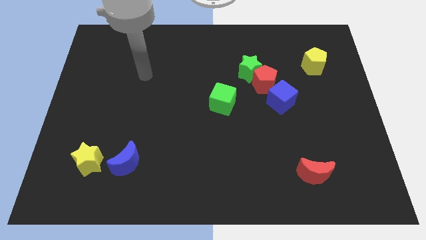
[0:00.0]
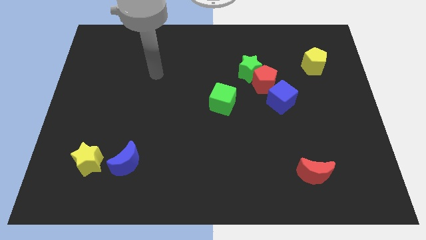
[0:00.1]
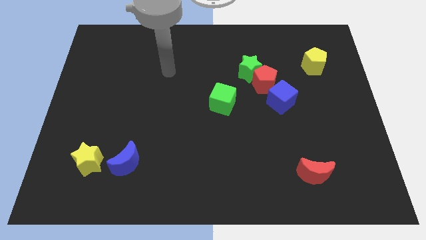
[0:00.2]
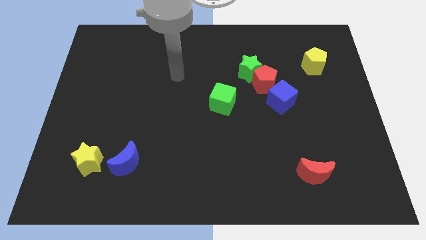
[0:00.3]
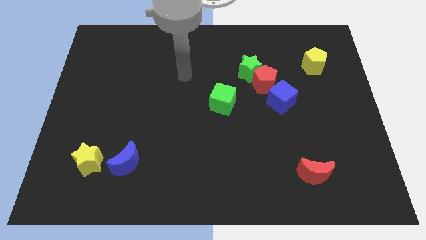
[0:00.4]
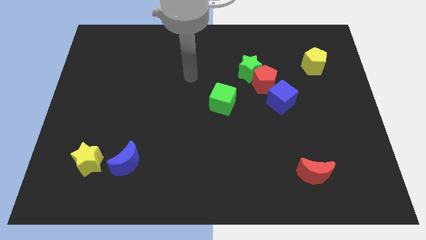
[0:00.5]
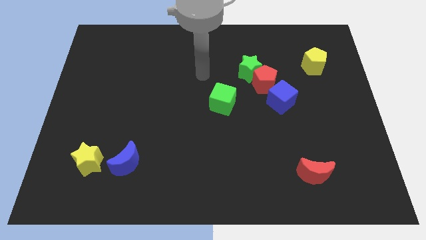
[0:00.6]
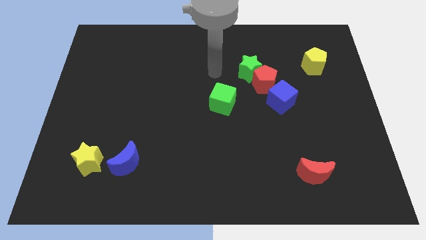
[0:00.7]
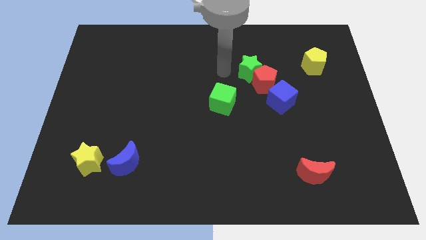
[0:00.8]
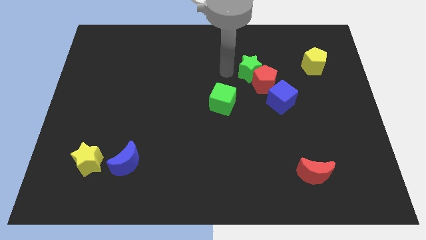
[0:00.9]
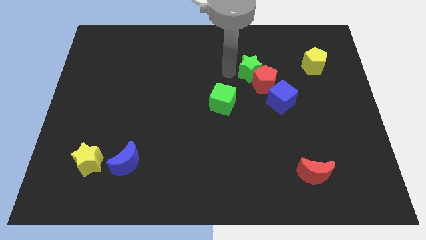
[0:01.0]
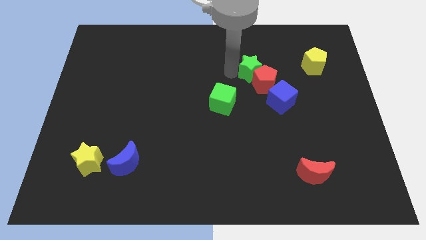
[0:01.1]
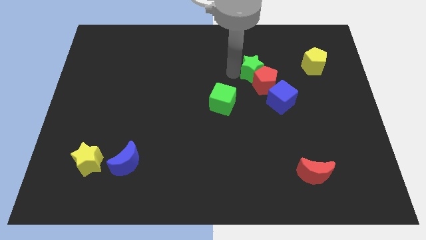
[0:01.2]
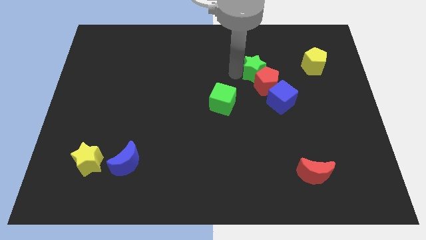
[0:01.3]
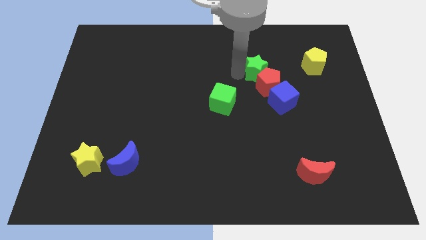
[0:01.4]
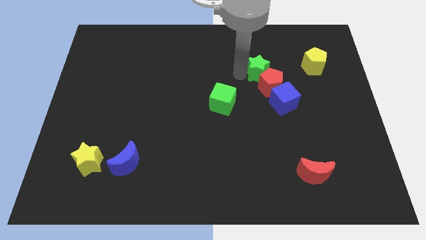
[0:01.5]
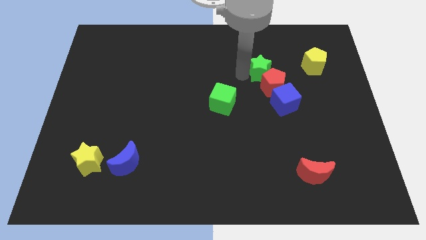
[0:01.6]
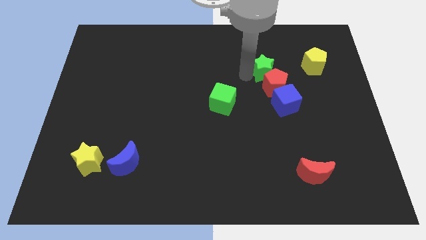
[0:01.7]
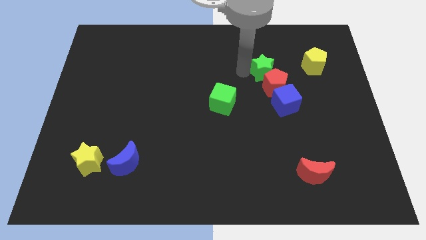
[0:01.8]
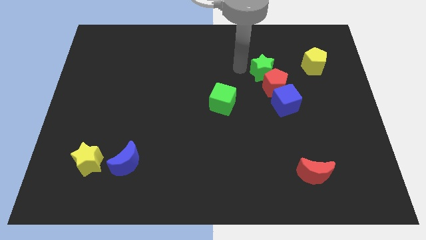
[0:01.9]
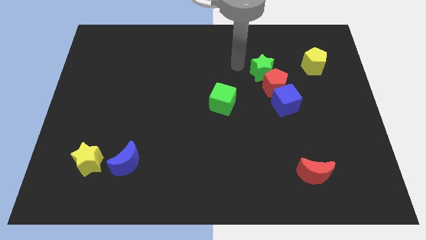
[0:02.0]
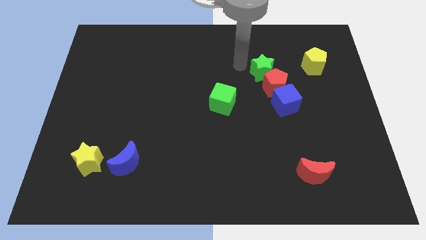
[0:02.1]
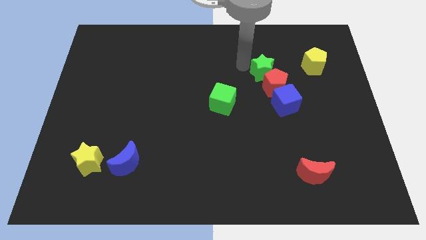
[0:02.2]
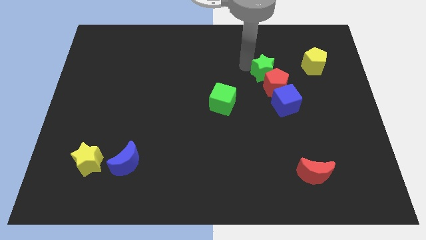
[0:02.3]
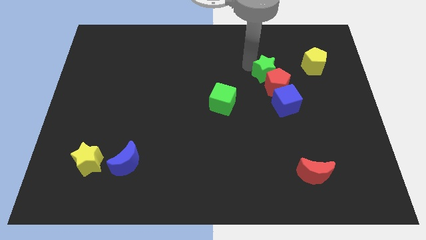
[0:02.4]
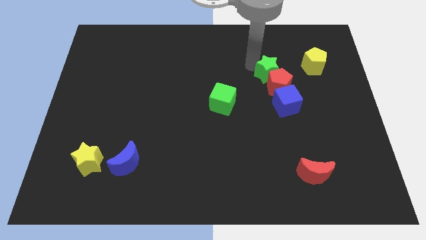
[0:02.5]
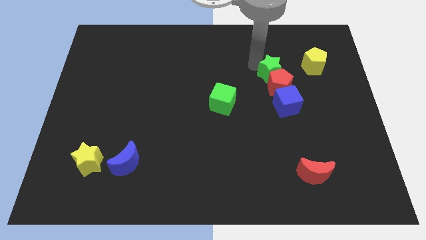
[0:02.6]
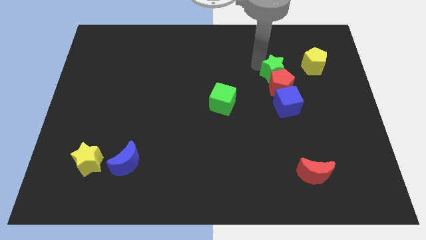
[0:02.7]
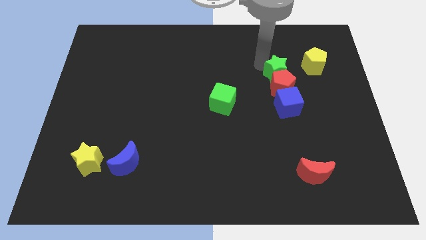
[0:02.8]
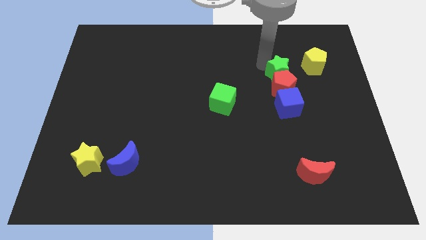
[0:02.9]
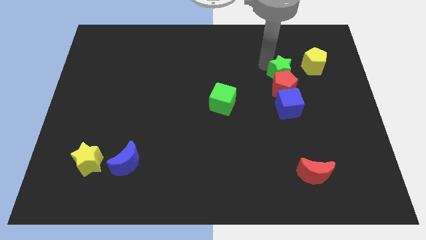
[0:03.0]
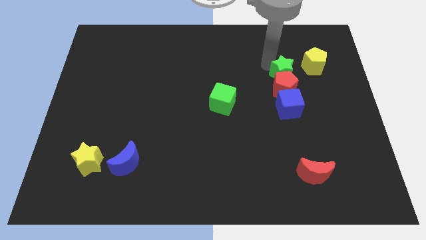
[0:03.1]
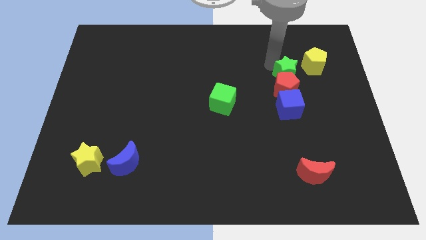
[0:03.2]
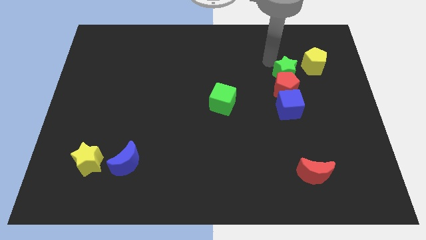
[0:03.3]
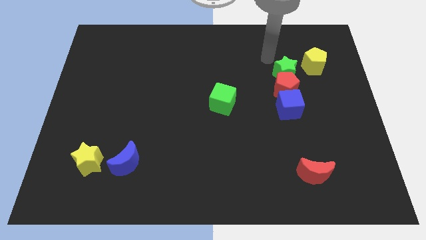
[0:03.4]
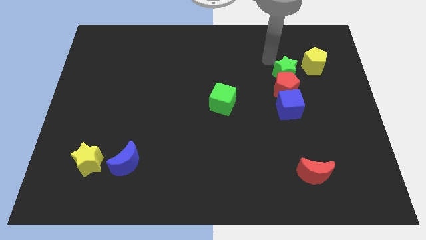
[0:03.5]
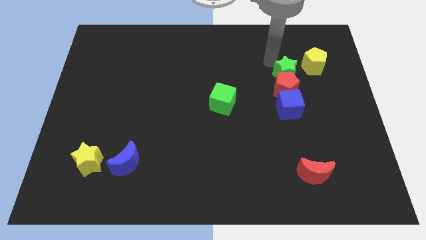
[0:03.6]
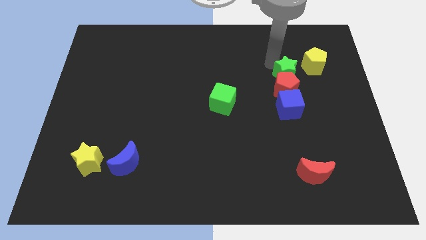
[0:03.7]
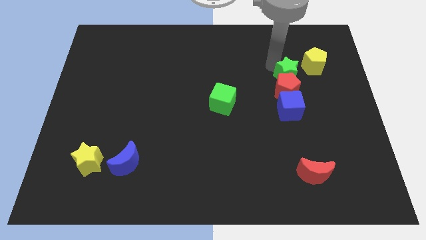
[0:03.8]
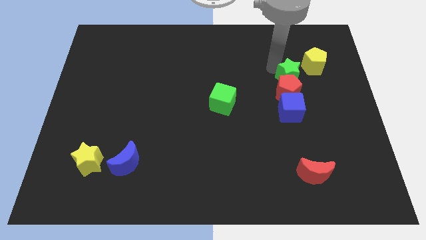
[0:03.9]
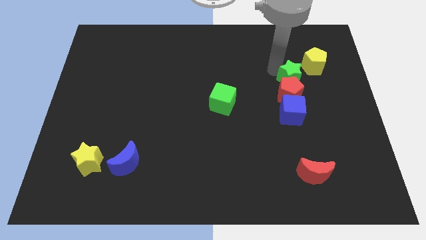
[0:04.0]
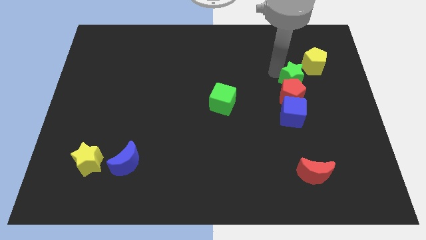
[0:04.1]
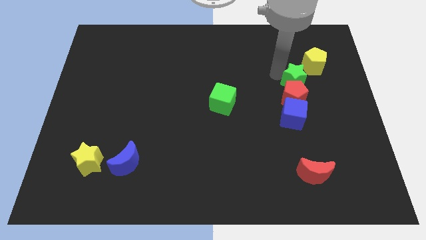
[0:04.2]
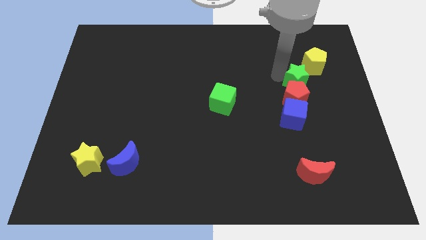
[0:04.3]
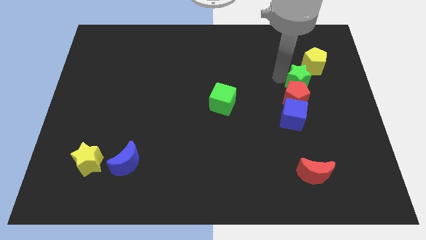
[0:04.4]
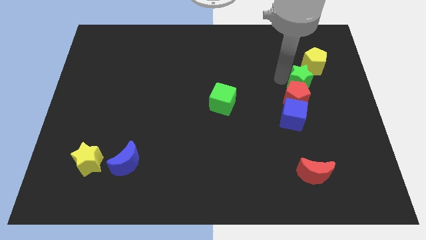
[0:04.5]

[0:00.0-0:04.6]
slide the green star to the bottom of the yellow pentagon

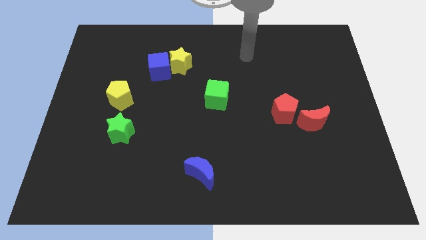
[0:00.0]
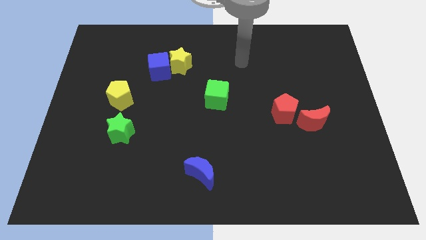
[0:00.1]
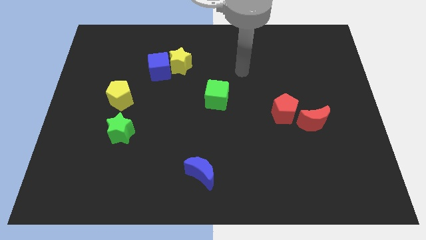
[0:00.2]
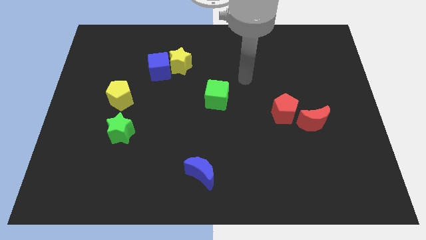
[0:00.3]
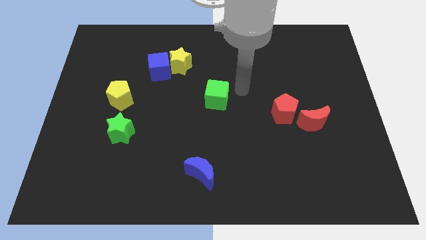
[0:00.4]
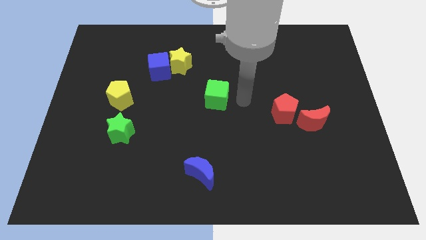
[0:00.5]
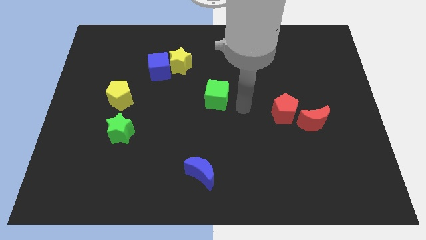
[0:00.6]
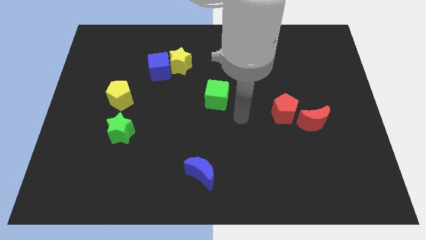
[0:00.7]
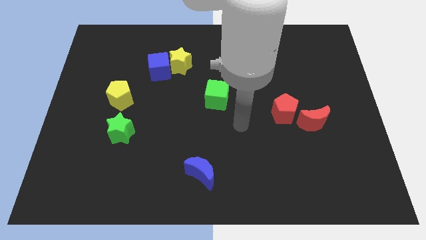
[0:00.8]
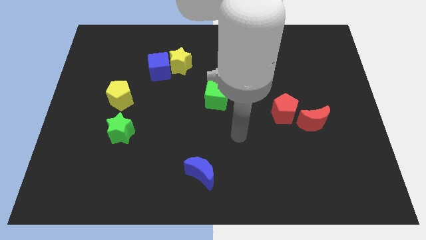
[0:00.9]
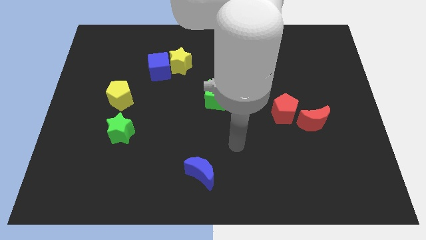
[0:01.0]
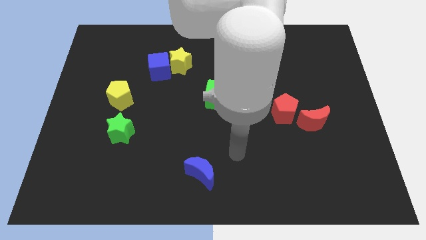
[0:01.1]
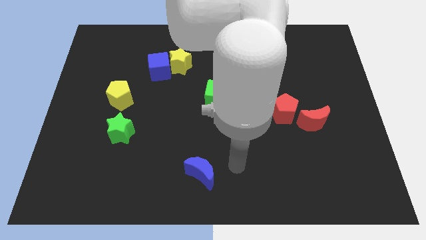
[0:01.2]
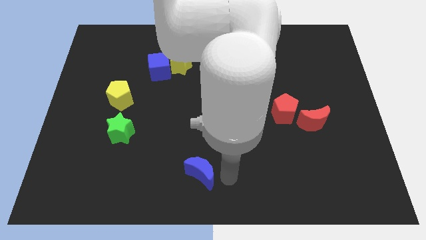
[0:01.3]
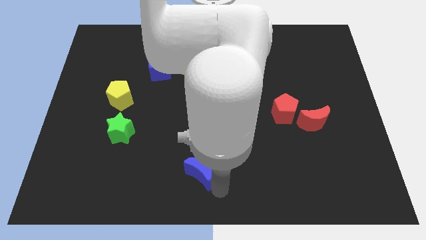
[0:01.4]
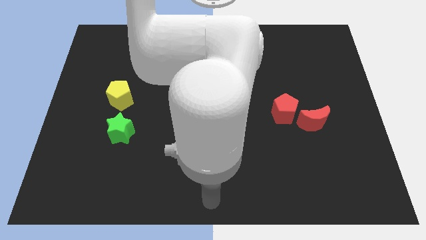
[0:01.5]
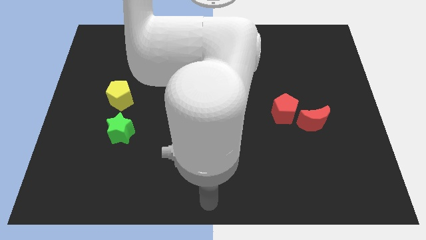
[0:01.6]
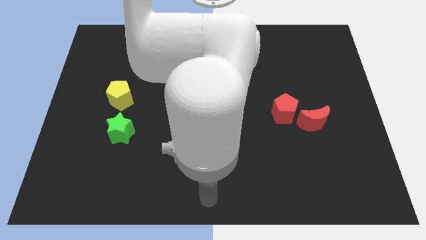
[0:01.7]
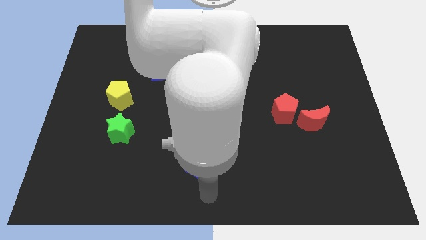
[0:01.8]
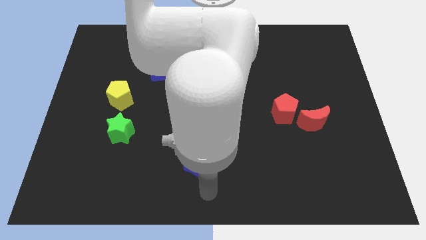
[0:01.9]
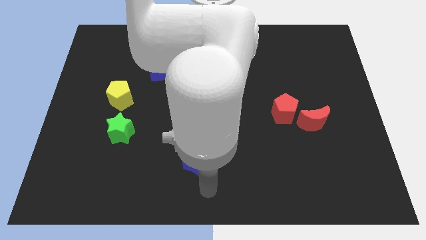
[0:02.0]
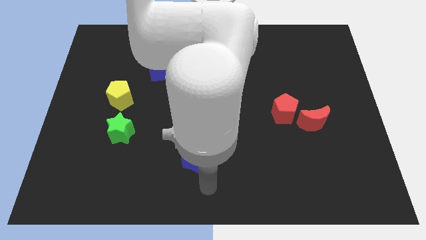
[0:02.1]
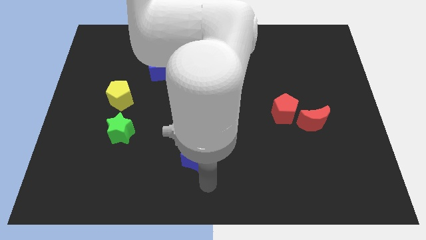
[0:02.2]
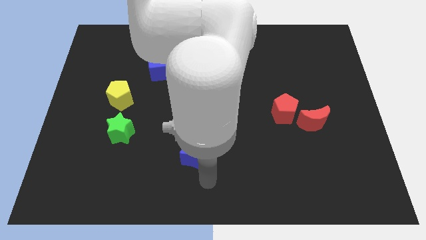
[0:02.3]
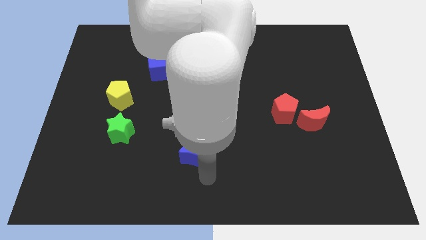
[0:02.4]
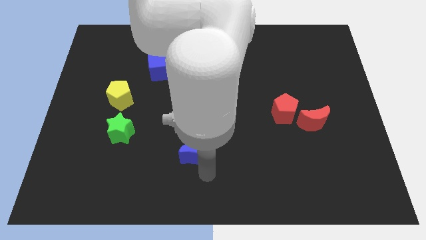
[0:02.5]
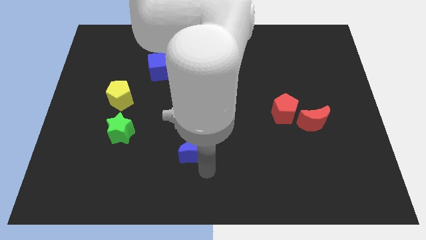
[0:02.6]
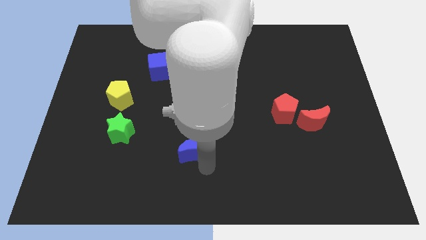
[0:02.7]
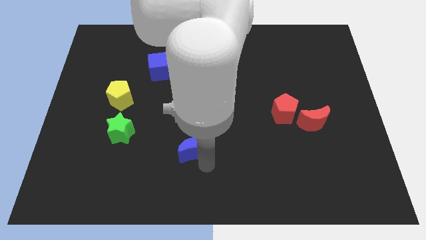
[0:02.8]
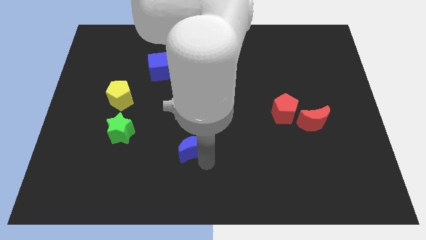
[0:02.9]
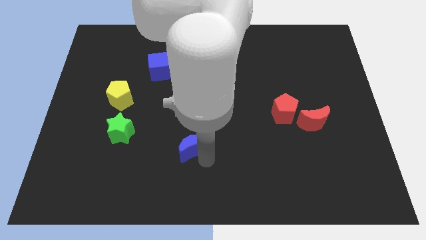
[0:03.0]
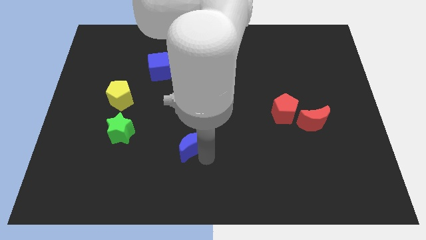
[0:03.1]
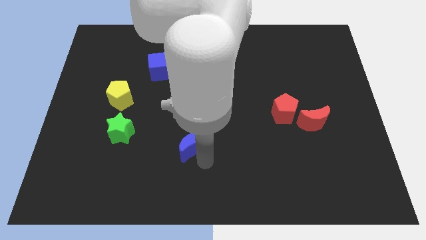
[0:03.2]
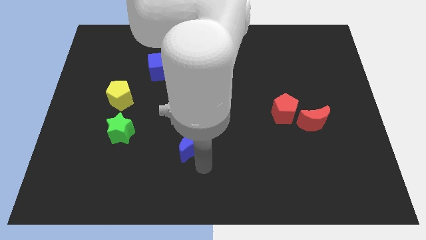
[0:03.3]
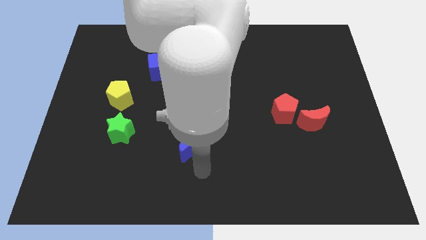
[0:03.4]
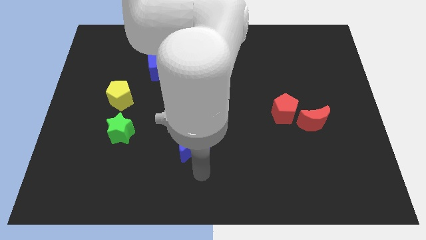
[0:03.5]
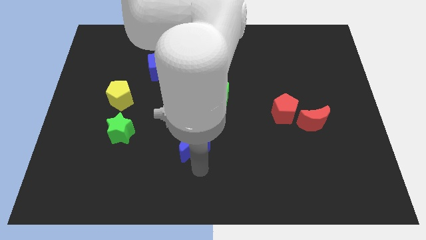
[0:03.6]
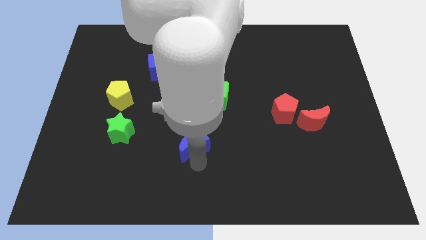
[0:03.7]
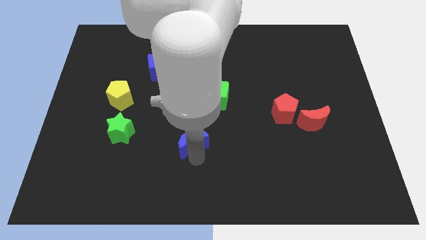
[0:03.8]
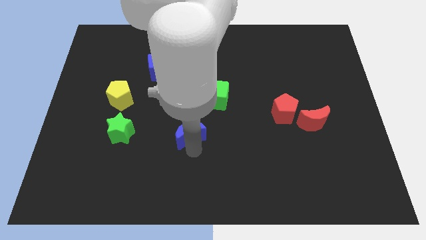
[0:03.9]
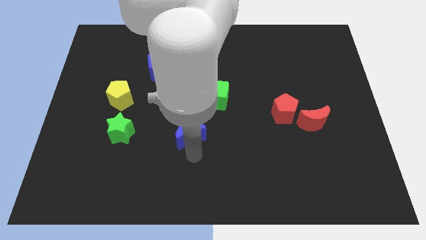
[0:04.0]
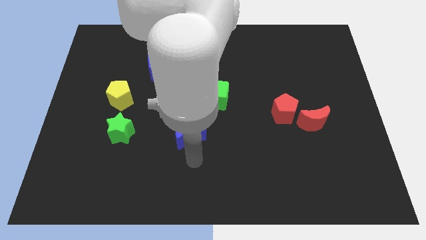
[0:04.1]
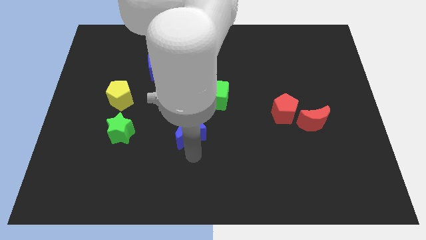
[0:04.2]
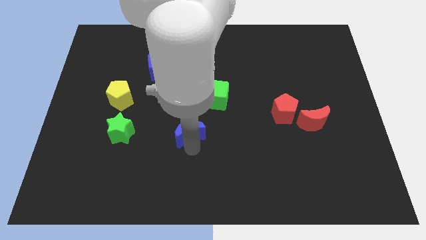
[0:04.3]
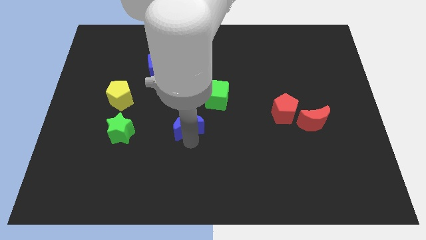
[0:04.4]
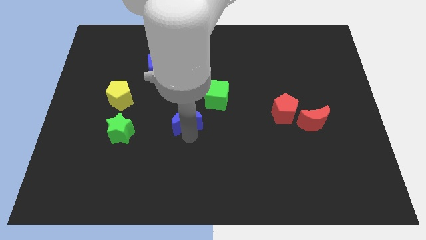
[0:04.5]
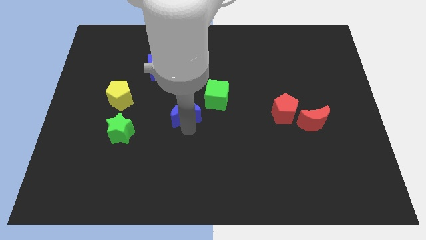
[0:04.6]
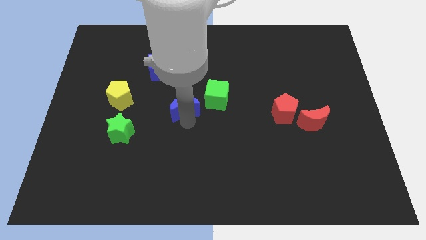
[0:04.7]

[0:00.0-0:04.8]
slide the blue moon to the bottom of the yellow star
